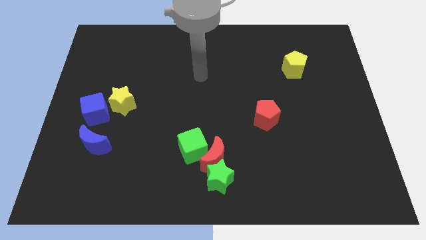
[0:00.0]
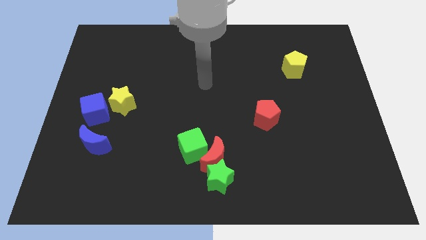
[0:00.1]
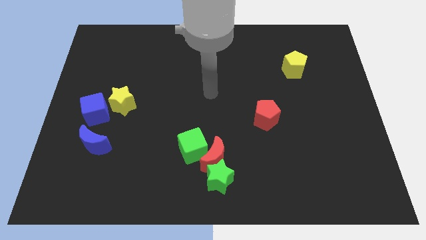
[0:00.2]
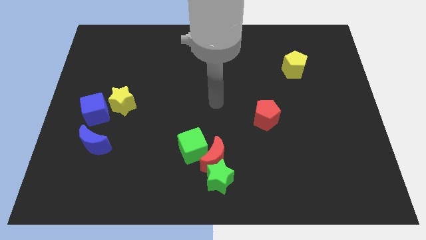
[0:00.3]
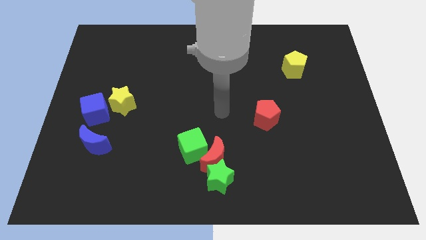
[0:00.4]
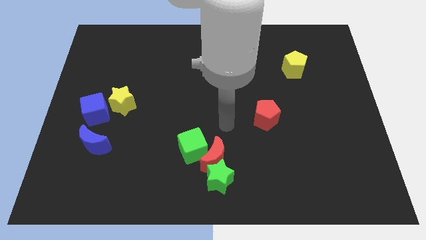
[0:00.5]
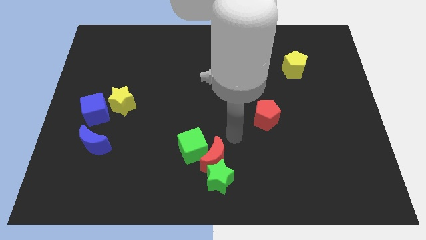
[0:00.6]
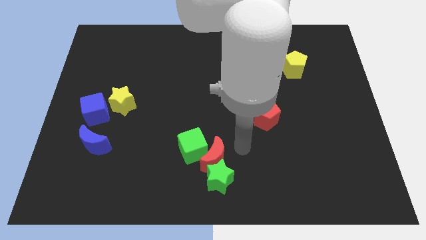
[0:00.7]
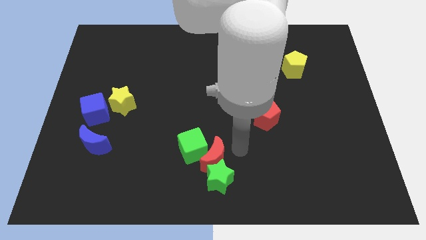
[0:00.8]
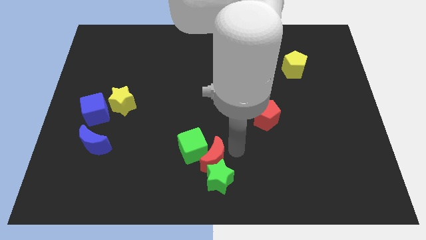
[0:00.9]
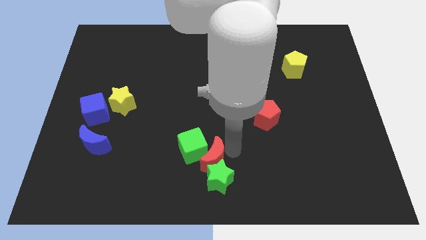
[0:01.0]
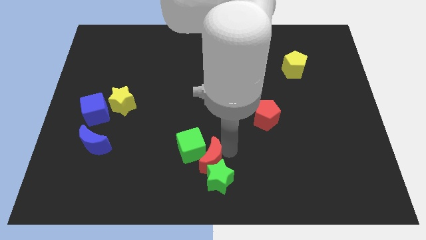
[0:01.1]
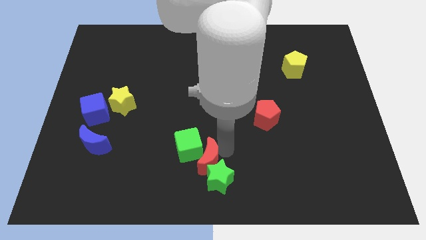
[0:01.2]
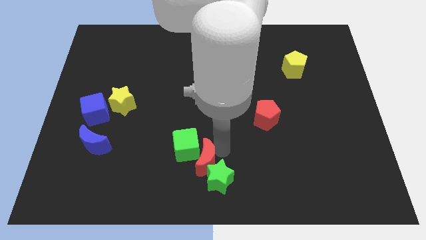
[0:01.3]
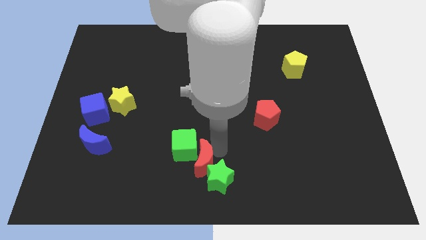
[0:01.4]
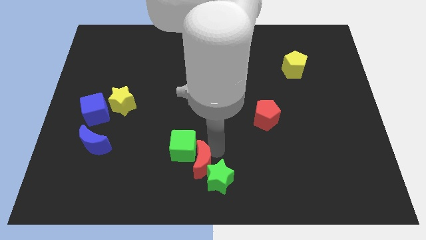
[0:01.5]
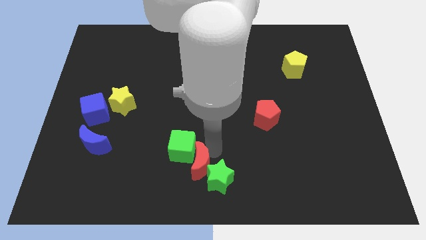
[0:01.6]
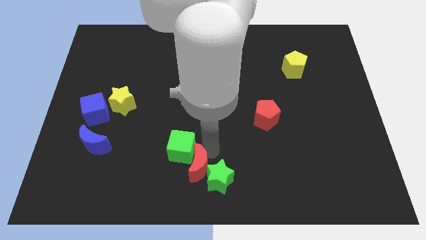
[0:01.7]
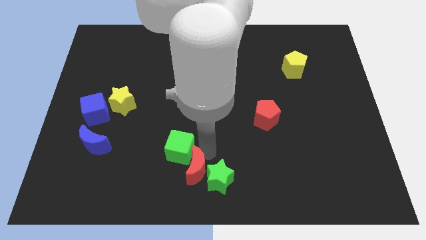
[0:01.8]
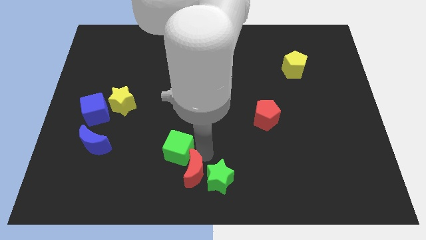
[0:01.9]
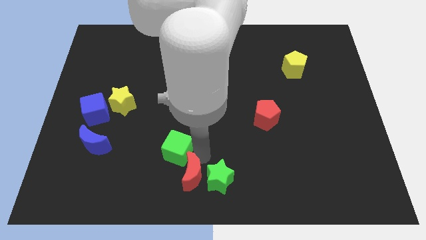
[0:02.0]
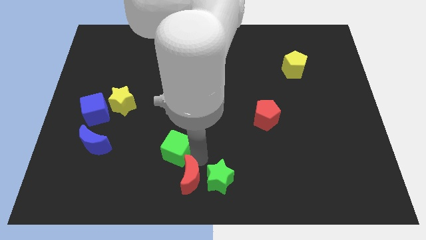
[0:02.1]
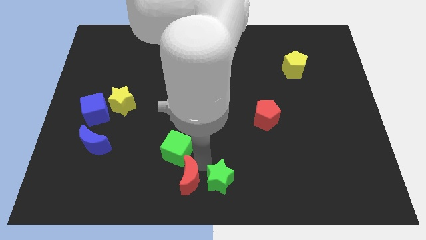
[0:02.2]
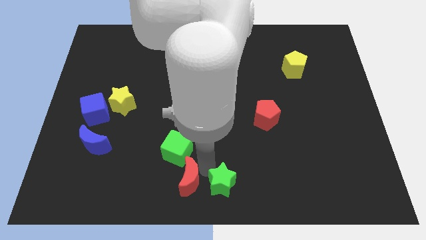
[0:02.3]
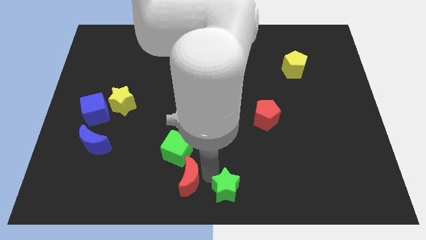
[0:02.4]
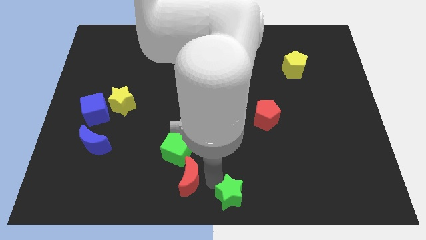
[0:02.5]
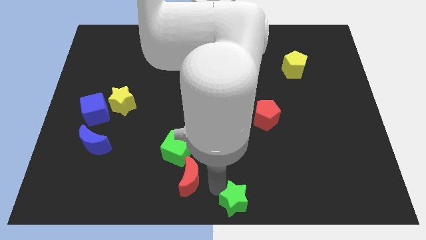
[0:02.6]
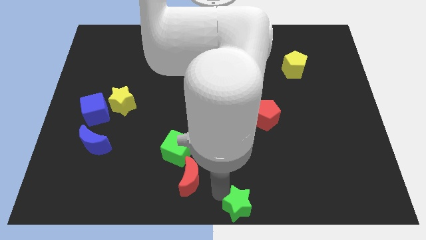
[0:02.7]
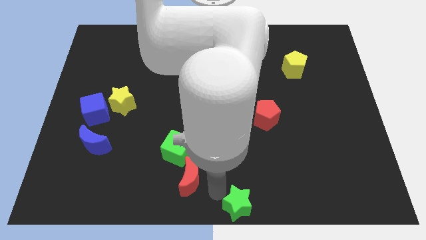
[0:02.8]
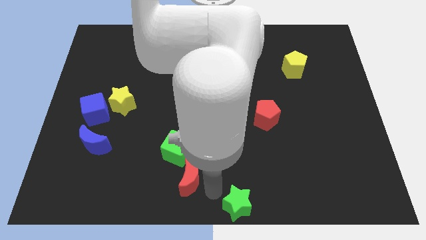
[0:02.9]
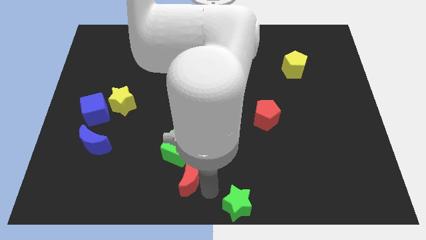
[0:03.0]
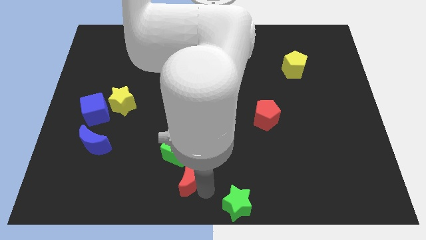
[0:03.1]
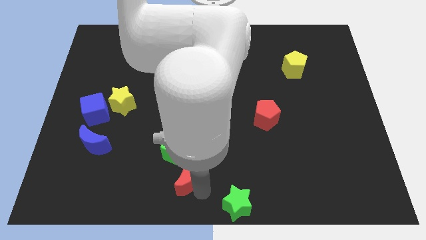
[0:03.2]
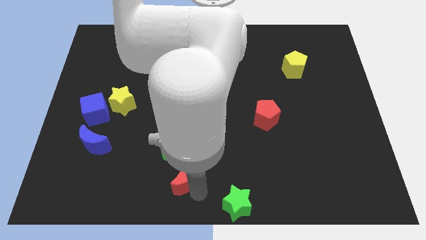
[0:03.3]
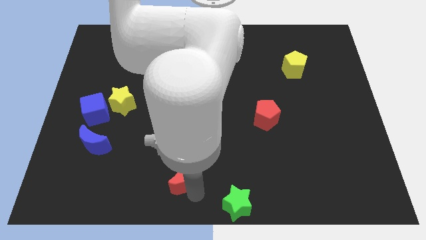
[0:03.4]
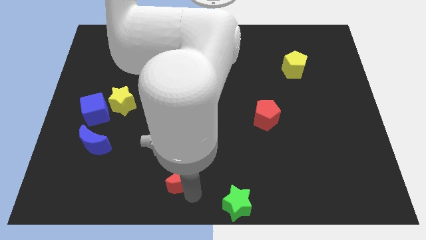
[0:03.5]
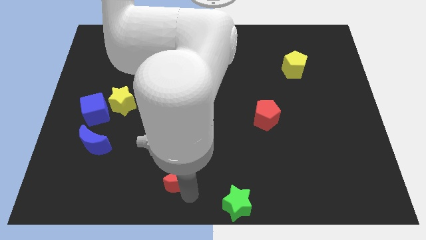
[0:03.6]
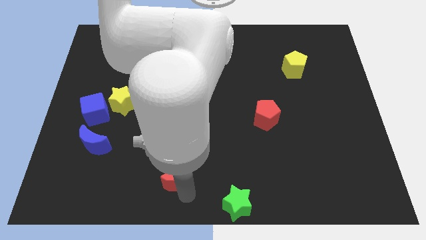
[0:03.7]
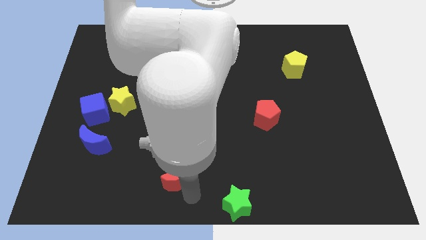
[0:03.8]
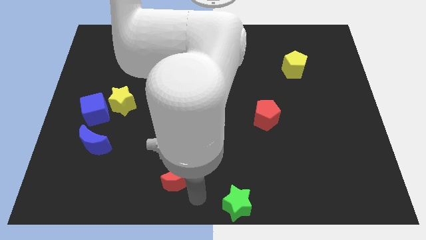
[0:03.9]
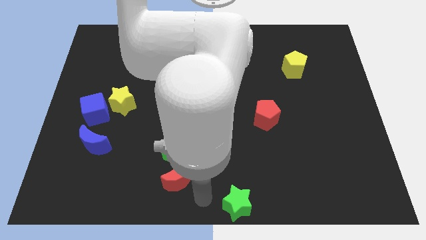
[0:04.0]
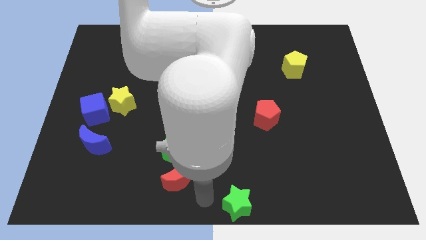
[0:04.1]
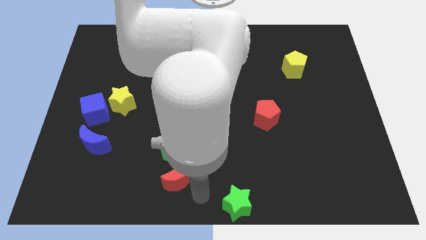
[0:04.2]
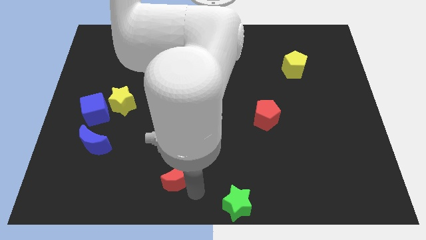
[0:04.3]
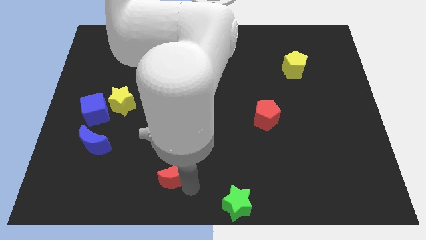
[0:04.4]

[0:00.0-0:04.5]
push the red moon a little left

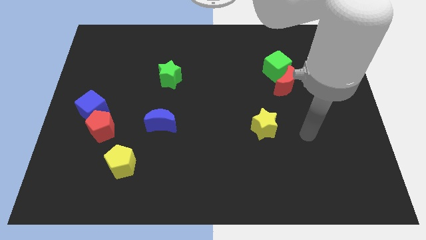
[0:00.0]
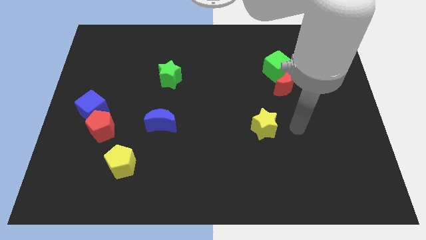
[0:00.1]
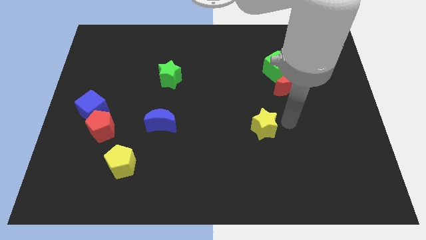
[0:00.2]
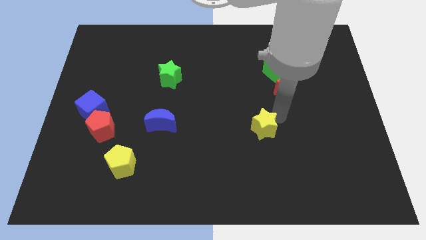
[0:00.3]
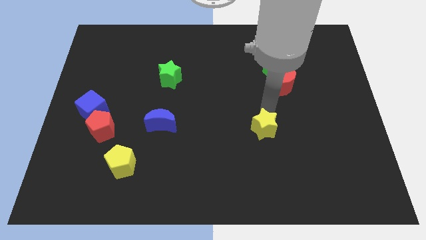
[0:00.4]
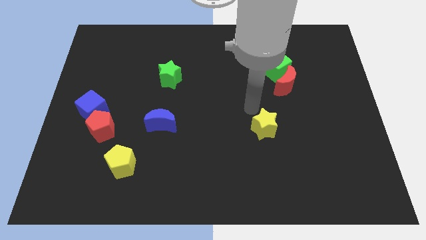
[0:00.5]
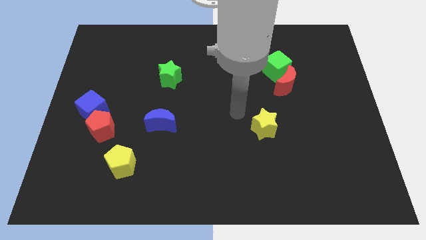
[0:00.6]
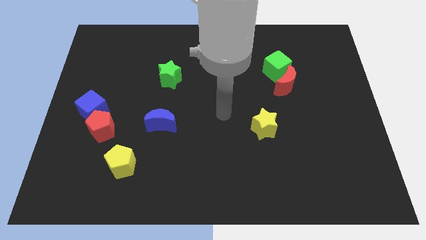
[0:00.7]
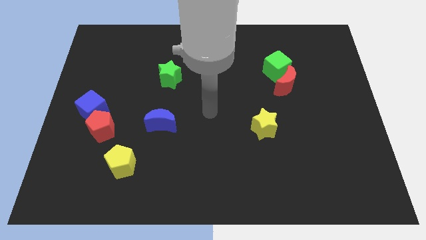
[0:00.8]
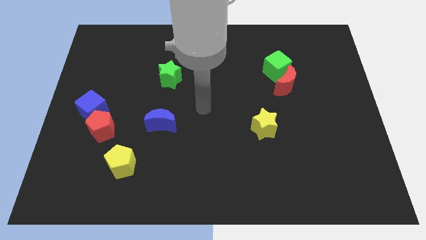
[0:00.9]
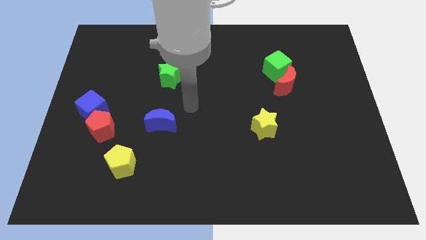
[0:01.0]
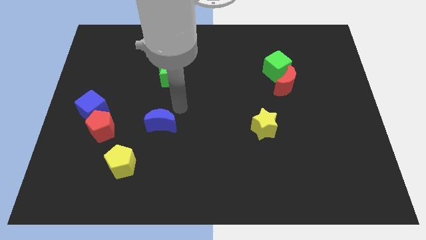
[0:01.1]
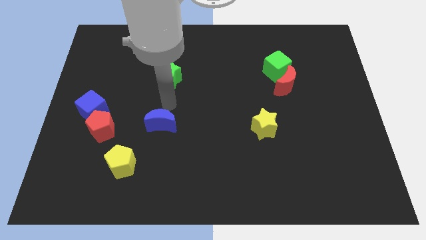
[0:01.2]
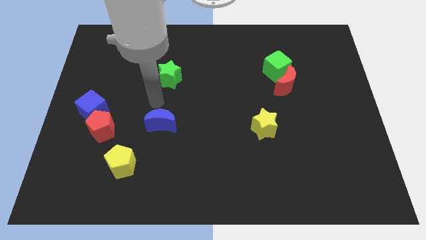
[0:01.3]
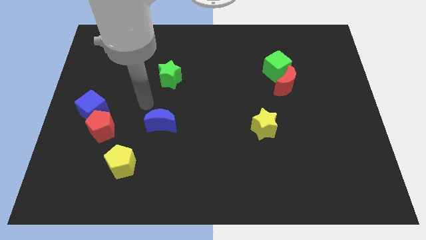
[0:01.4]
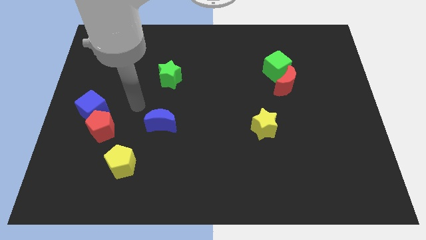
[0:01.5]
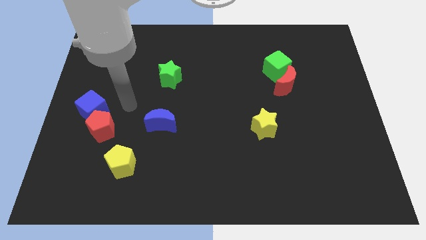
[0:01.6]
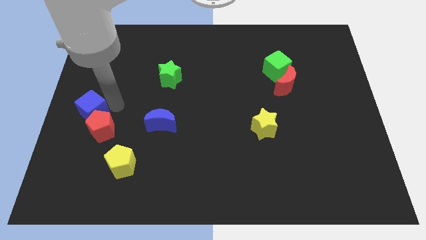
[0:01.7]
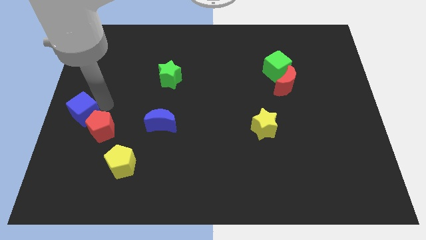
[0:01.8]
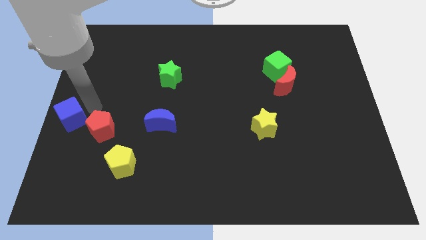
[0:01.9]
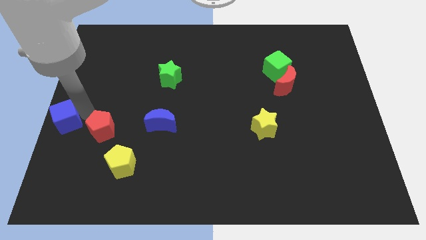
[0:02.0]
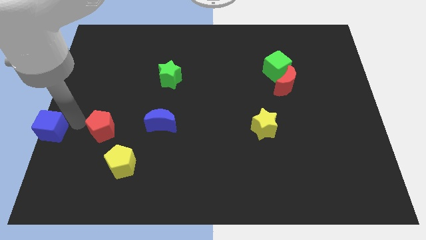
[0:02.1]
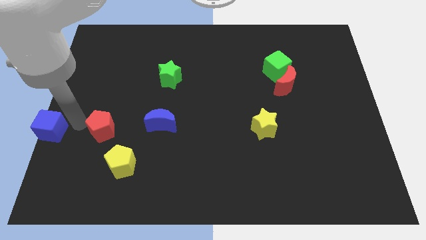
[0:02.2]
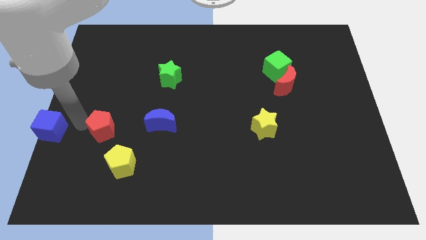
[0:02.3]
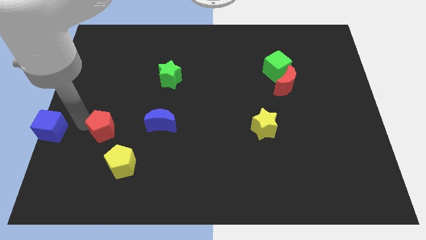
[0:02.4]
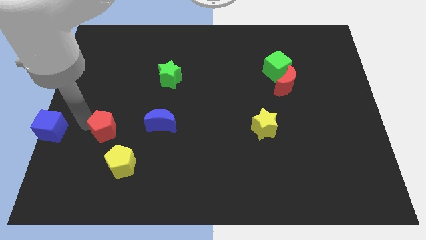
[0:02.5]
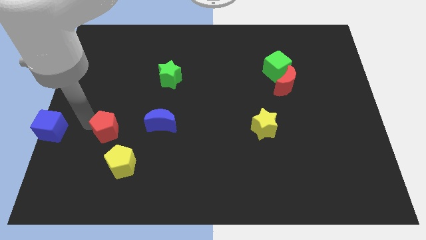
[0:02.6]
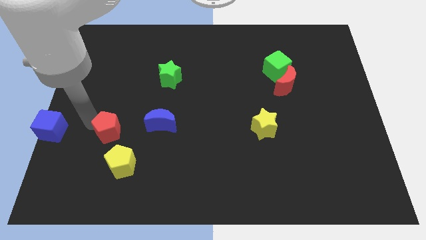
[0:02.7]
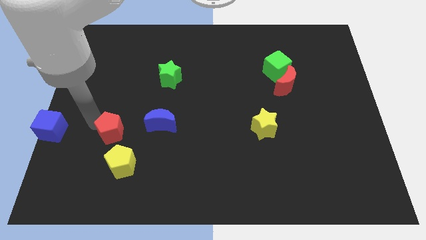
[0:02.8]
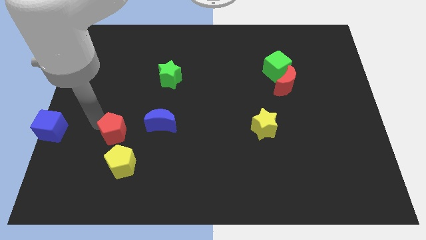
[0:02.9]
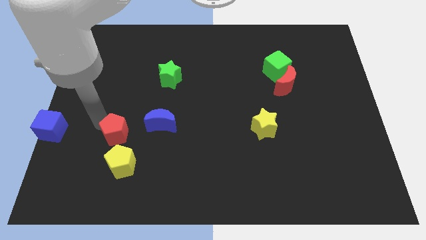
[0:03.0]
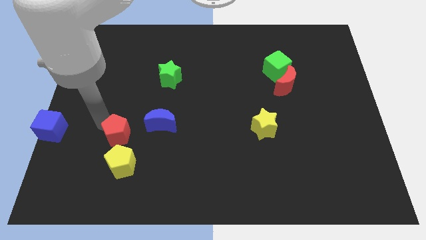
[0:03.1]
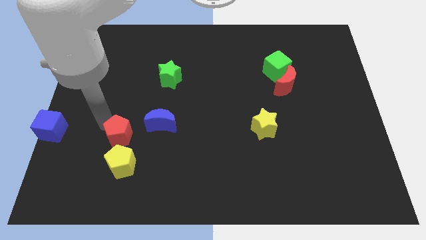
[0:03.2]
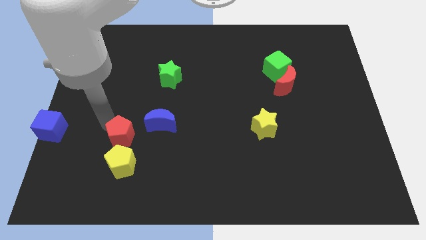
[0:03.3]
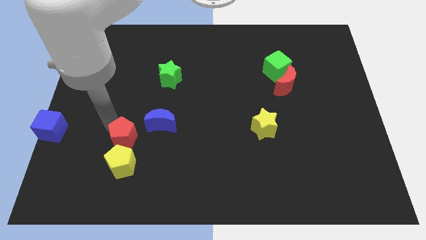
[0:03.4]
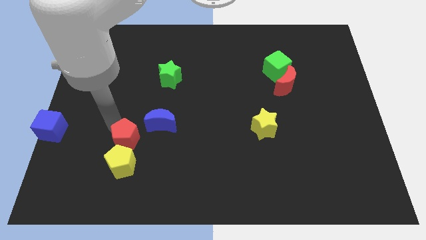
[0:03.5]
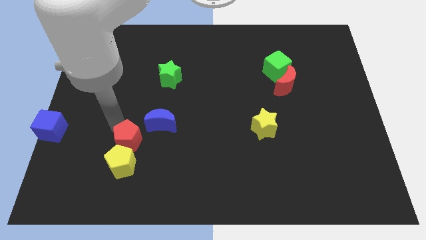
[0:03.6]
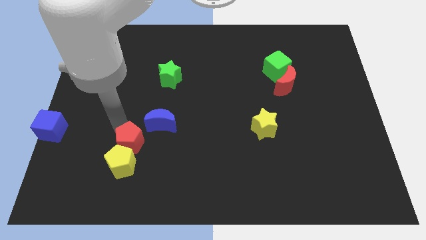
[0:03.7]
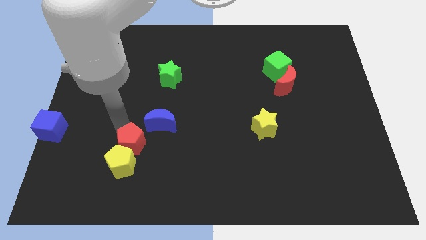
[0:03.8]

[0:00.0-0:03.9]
push the red pentagon a bit to the right
